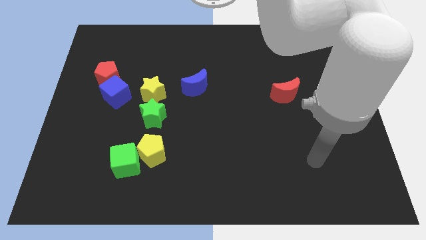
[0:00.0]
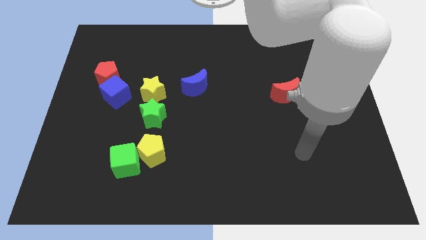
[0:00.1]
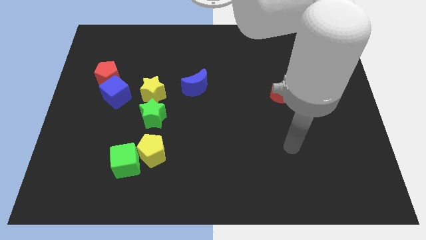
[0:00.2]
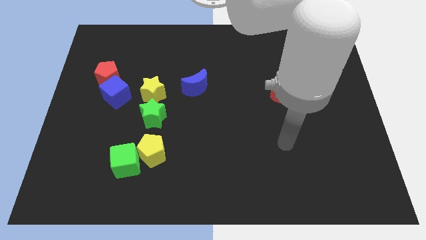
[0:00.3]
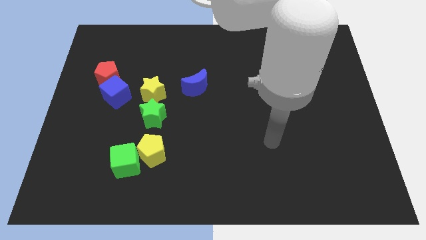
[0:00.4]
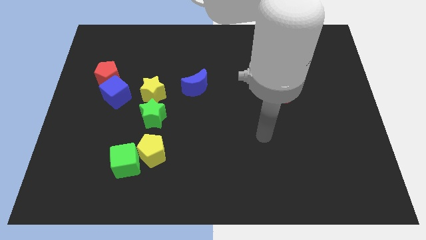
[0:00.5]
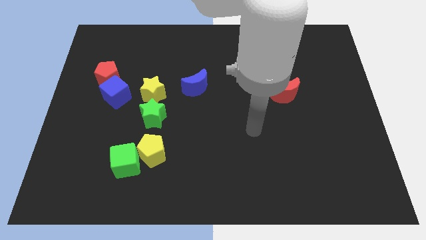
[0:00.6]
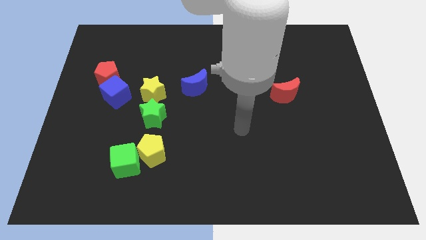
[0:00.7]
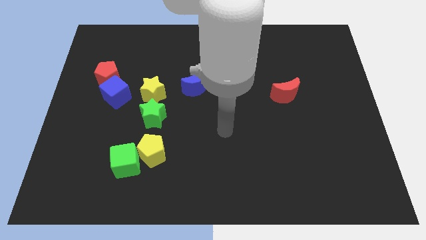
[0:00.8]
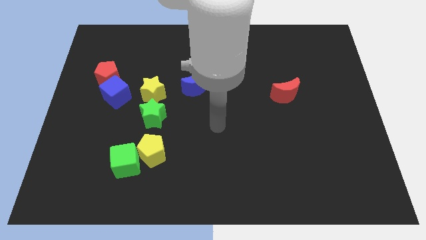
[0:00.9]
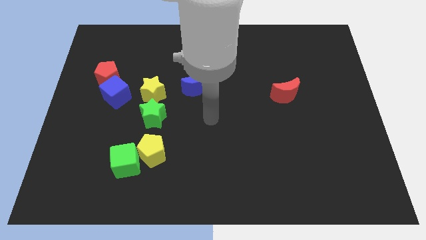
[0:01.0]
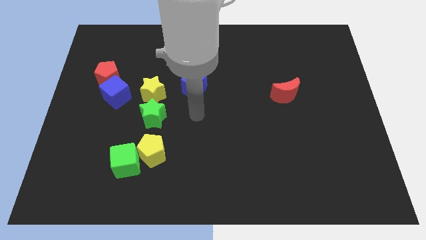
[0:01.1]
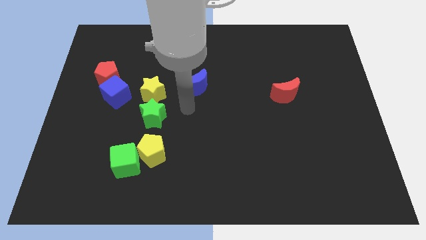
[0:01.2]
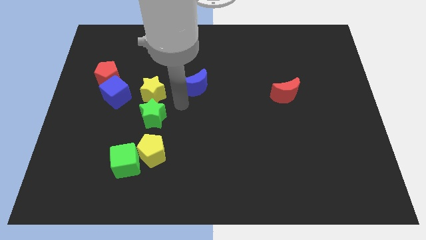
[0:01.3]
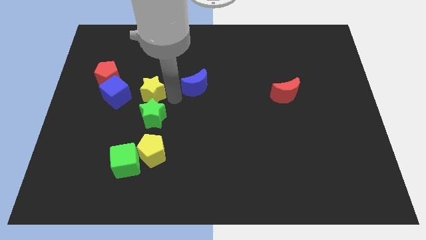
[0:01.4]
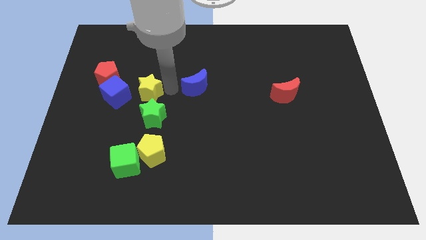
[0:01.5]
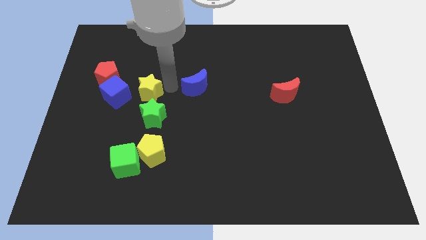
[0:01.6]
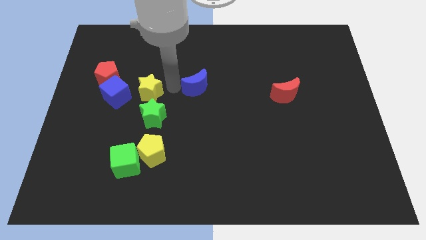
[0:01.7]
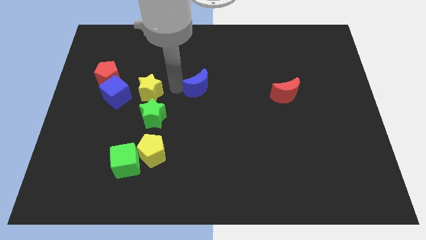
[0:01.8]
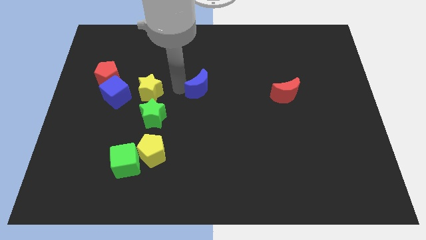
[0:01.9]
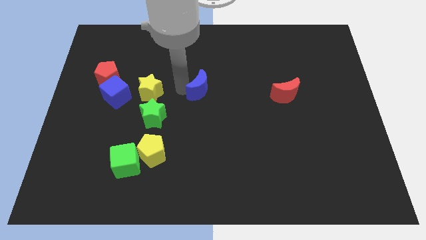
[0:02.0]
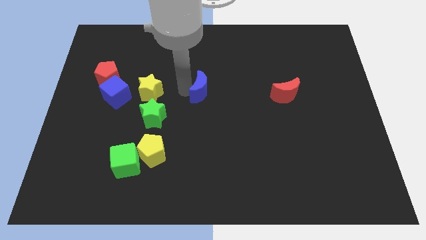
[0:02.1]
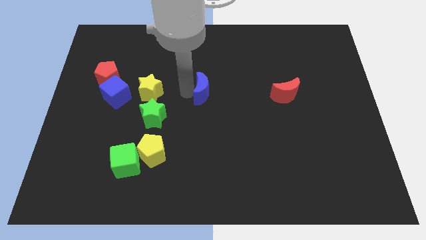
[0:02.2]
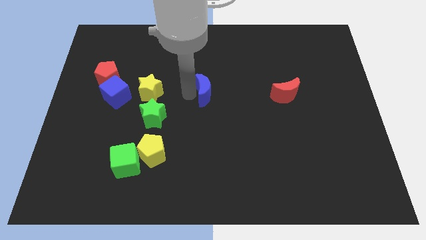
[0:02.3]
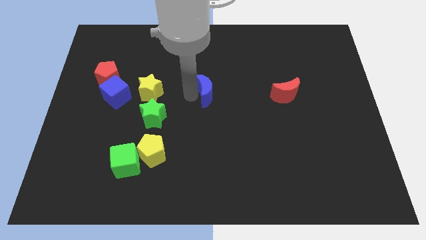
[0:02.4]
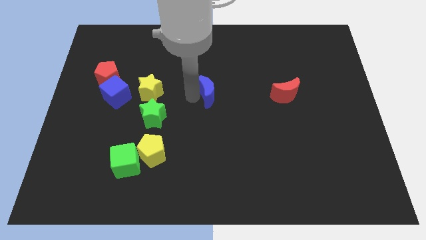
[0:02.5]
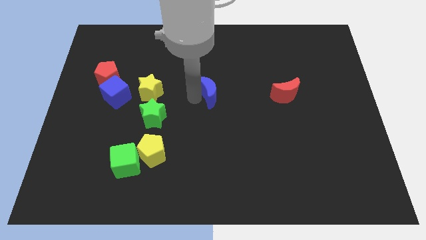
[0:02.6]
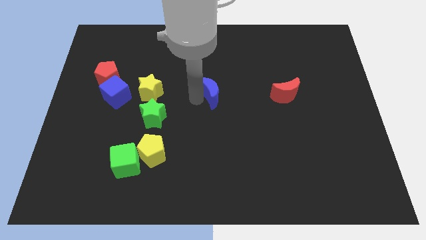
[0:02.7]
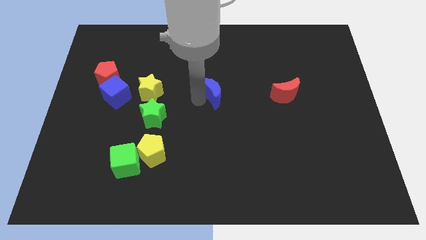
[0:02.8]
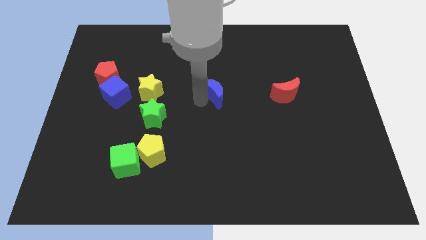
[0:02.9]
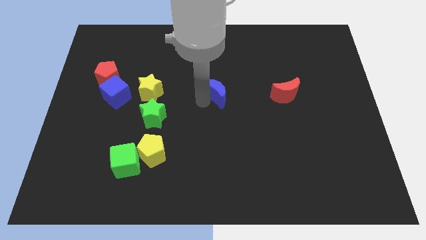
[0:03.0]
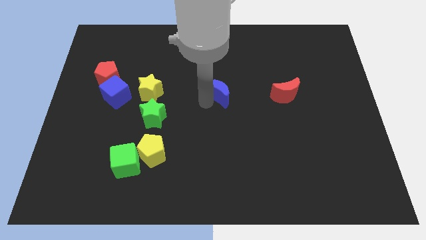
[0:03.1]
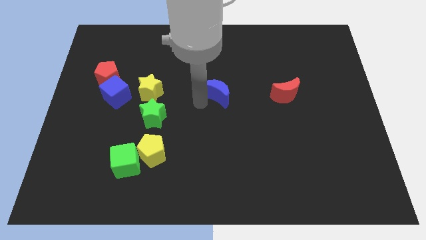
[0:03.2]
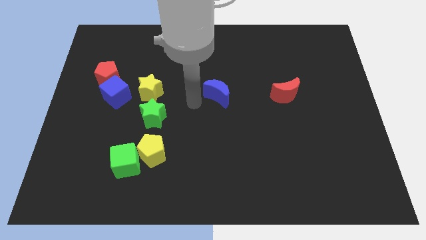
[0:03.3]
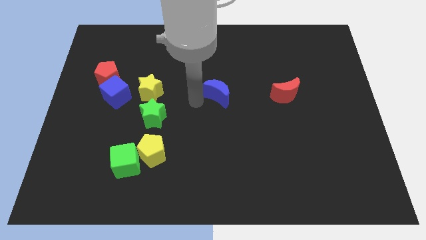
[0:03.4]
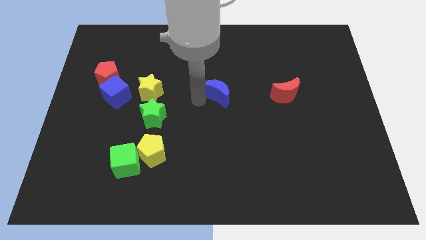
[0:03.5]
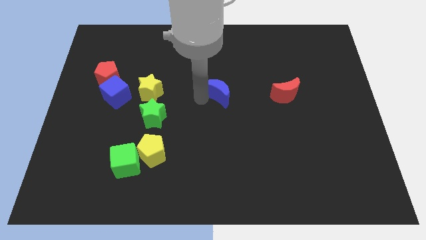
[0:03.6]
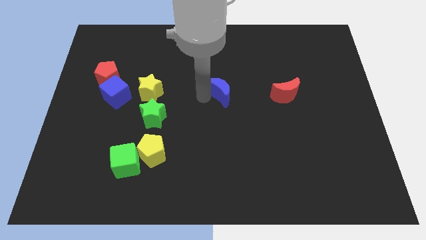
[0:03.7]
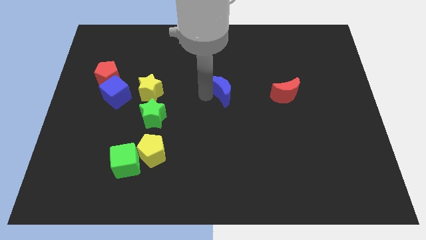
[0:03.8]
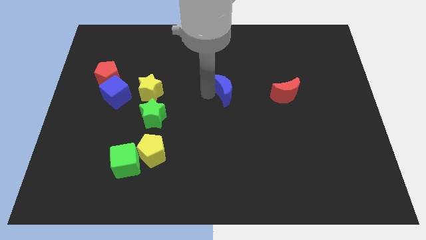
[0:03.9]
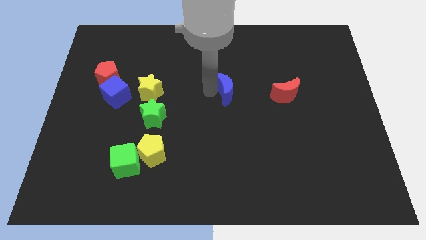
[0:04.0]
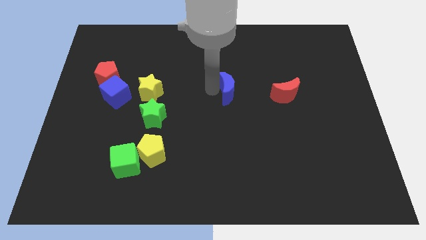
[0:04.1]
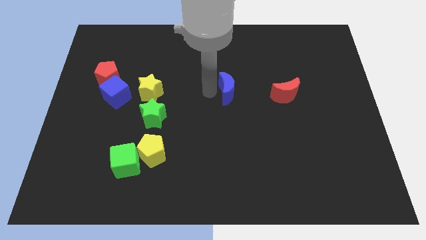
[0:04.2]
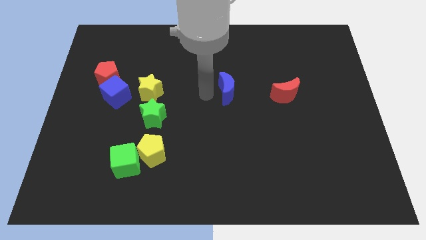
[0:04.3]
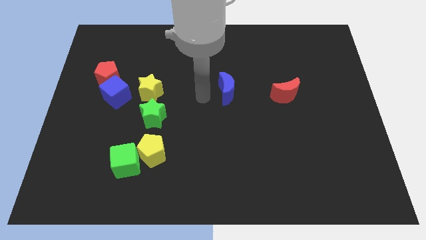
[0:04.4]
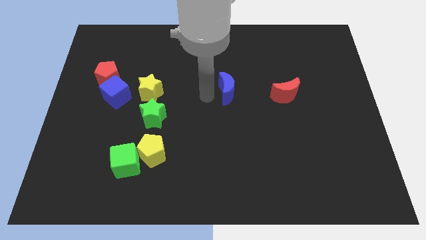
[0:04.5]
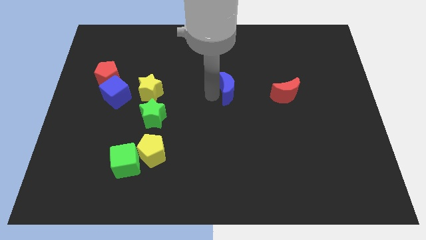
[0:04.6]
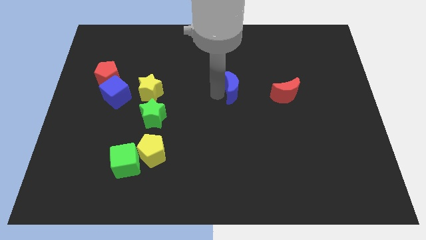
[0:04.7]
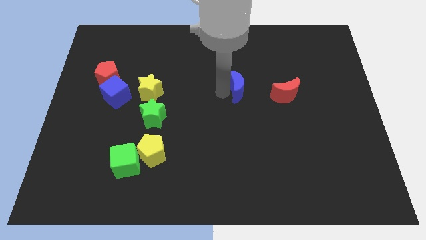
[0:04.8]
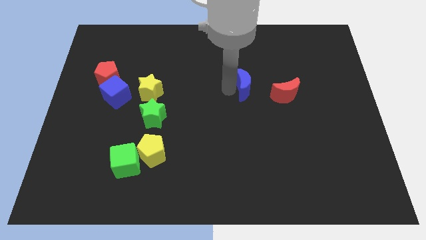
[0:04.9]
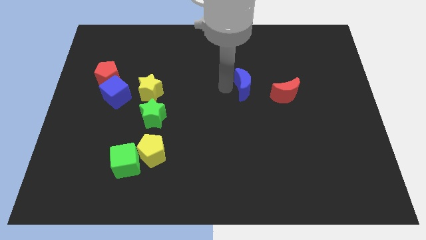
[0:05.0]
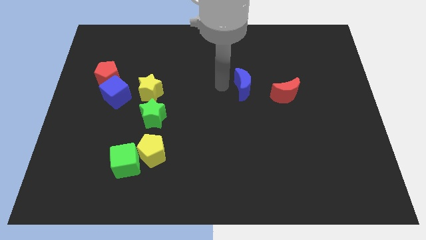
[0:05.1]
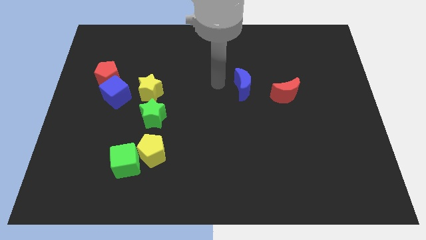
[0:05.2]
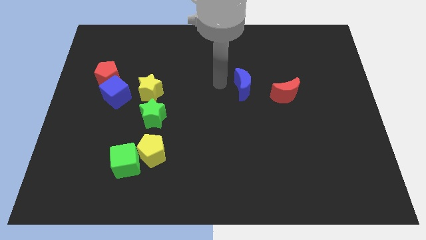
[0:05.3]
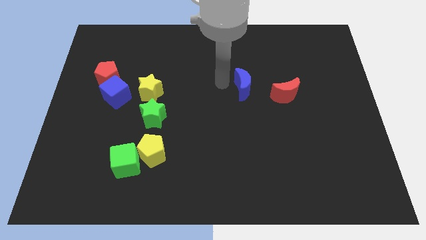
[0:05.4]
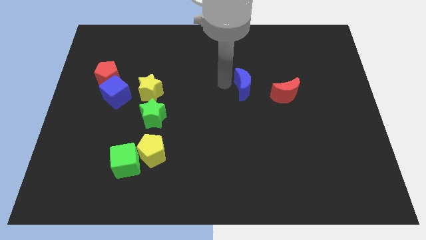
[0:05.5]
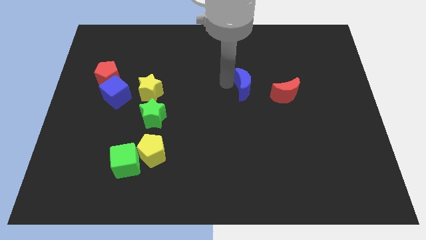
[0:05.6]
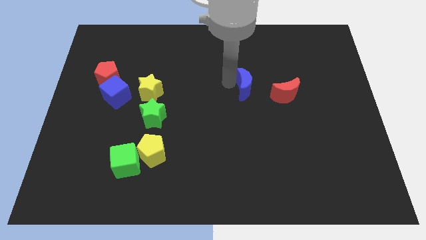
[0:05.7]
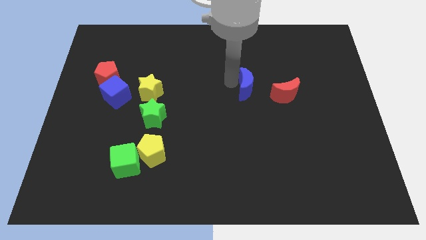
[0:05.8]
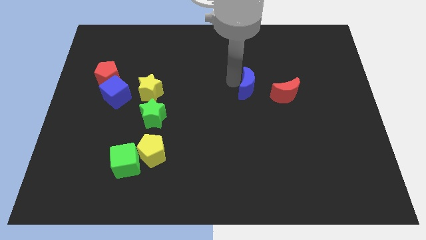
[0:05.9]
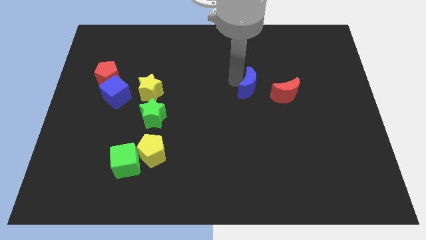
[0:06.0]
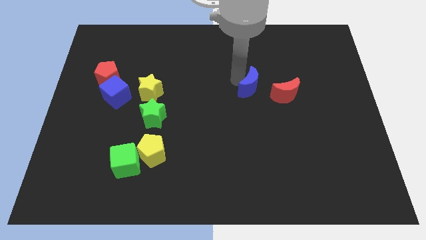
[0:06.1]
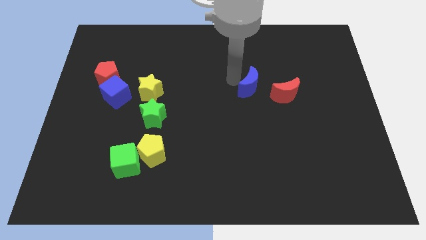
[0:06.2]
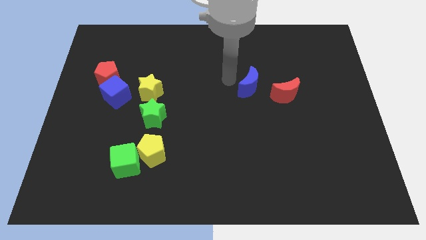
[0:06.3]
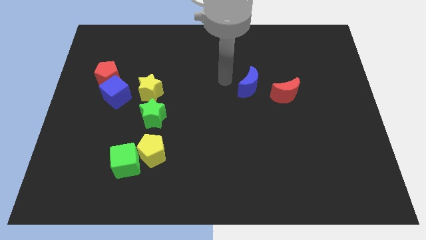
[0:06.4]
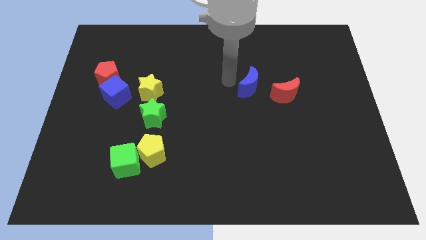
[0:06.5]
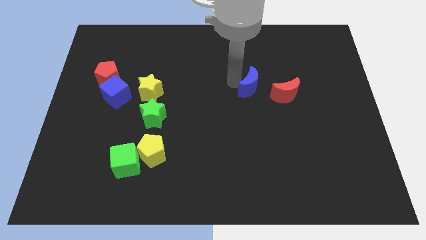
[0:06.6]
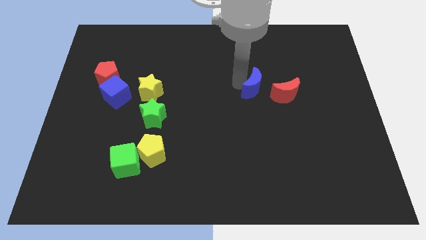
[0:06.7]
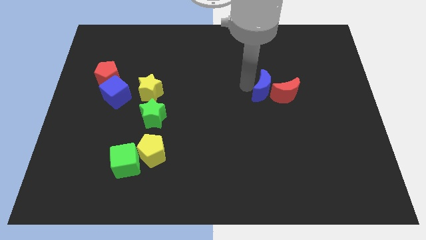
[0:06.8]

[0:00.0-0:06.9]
slide the blue moon close to the red moon

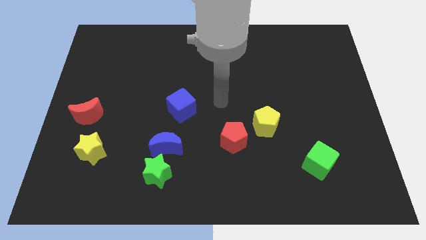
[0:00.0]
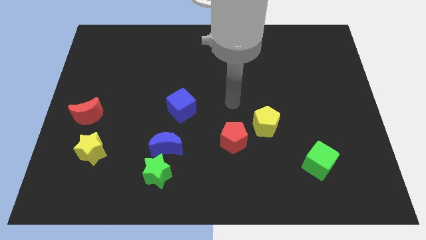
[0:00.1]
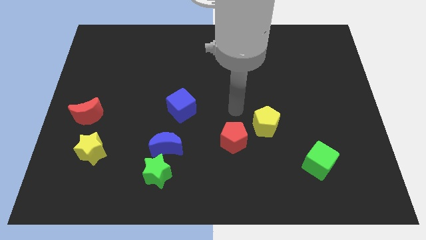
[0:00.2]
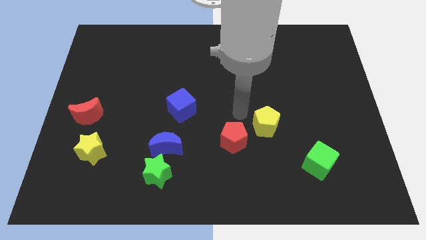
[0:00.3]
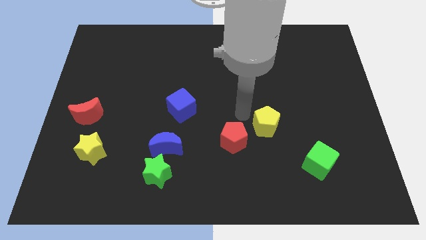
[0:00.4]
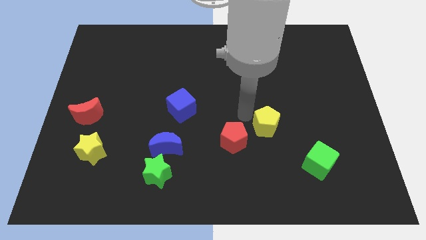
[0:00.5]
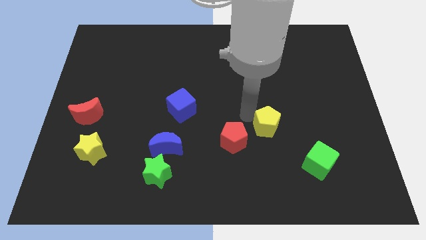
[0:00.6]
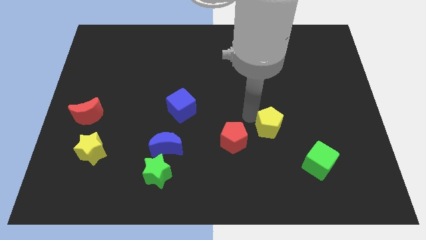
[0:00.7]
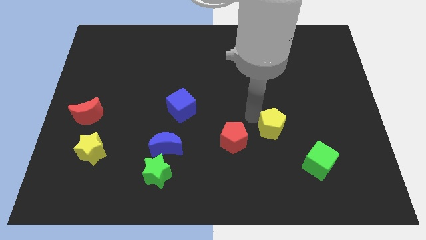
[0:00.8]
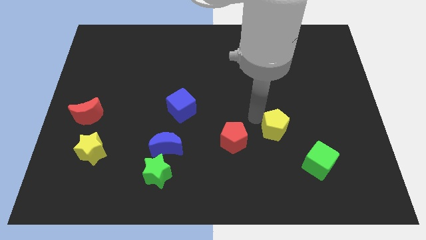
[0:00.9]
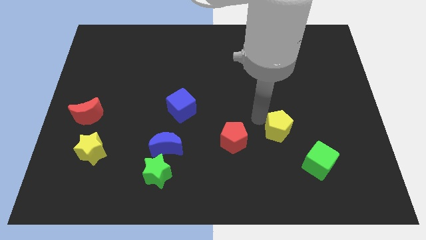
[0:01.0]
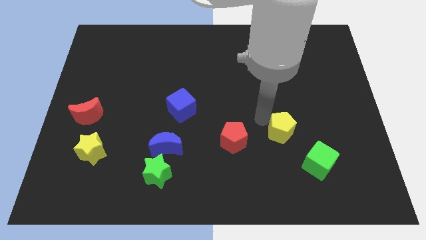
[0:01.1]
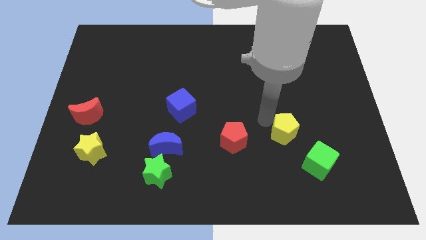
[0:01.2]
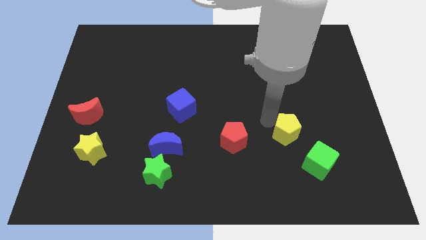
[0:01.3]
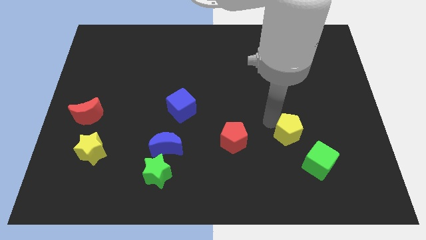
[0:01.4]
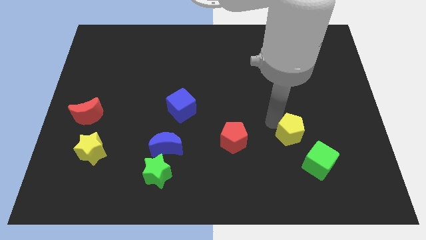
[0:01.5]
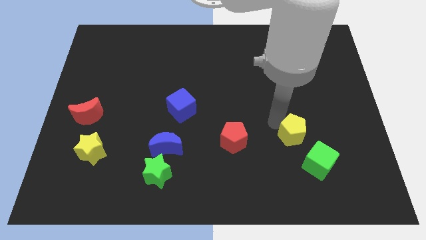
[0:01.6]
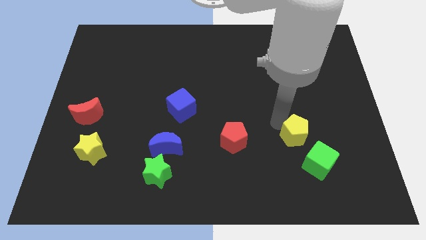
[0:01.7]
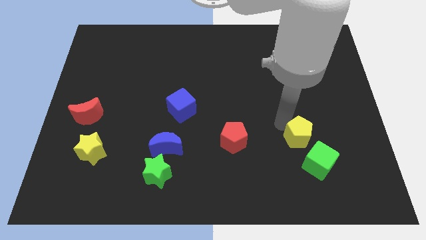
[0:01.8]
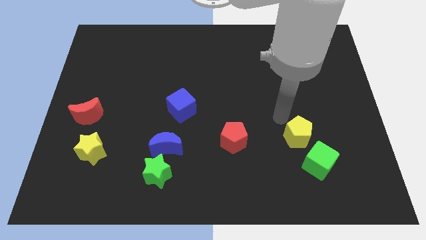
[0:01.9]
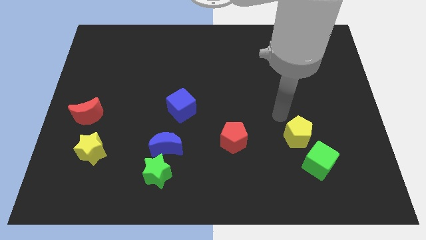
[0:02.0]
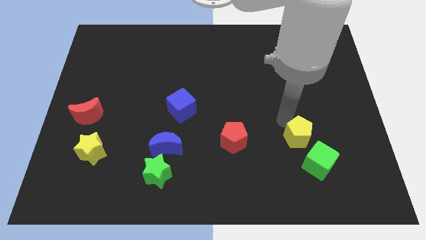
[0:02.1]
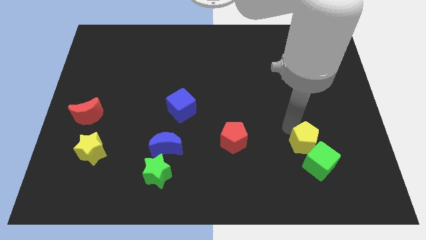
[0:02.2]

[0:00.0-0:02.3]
slide the yellow pentagon next to the green cube
